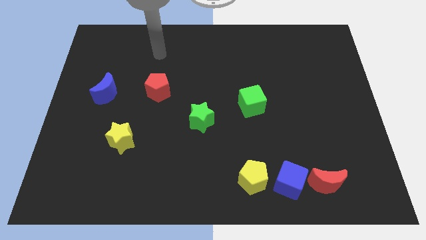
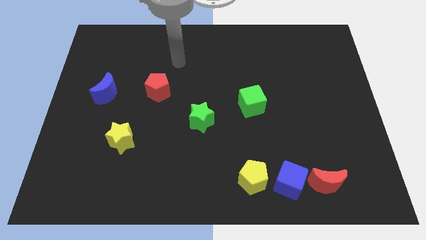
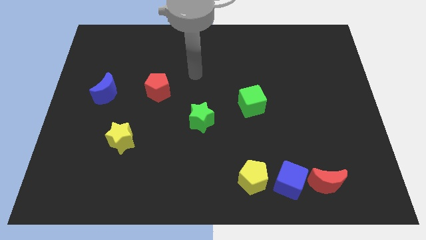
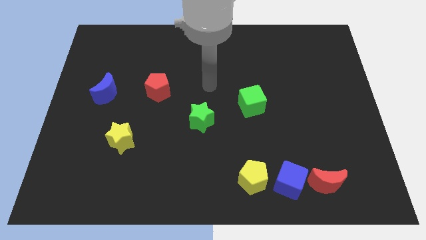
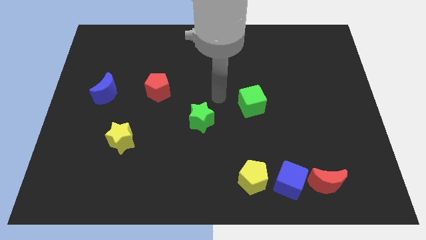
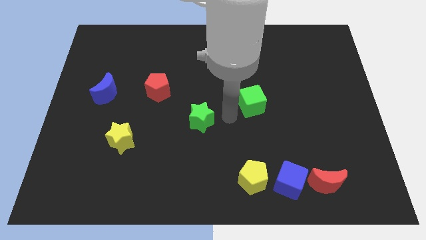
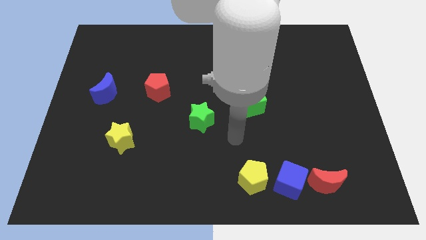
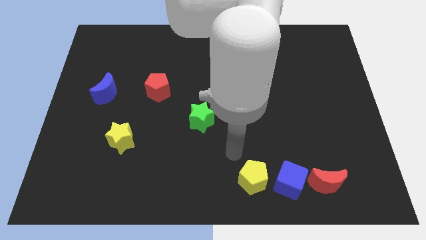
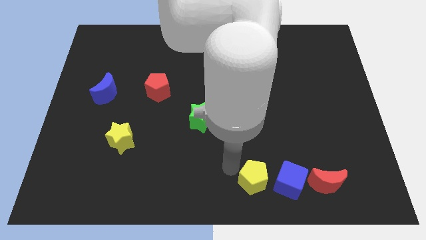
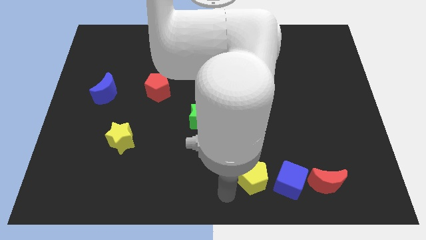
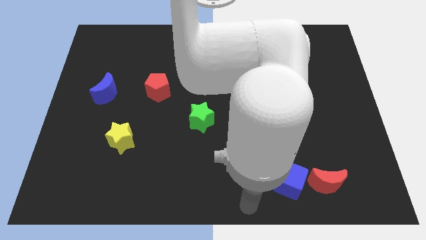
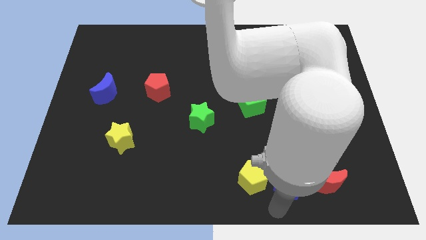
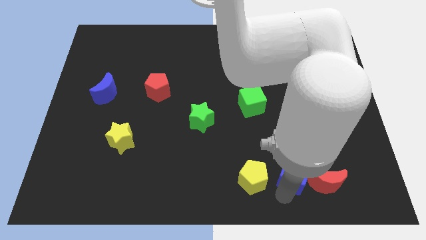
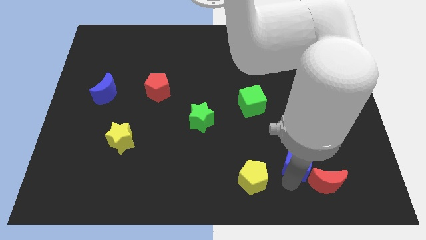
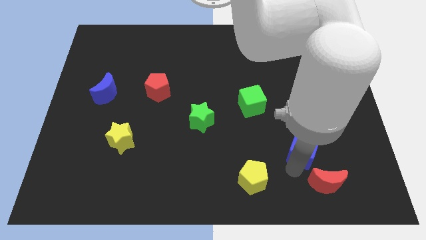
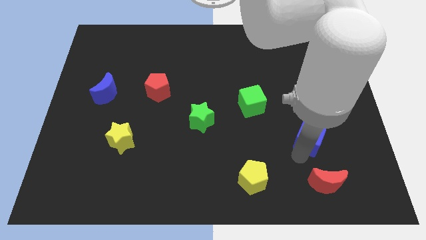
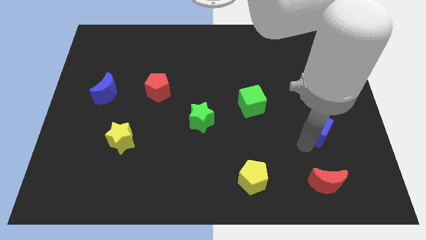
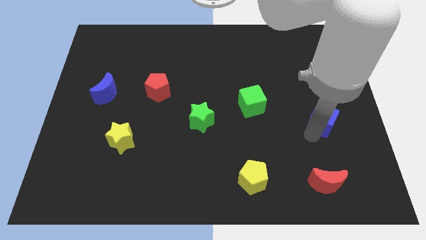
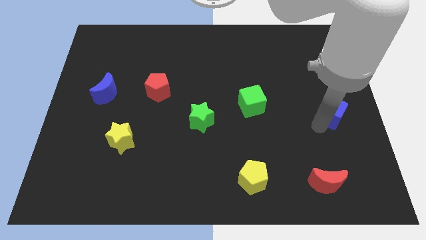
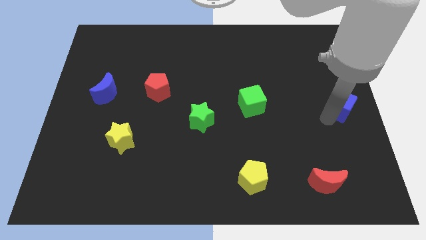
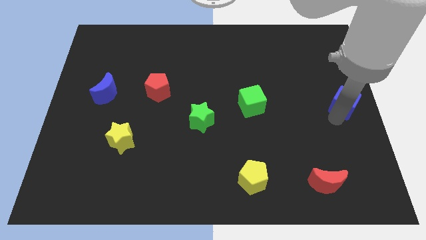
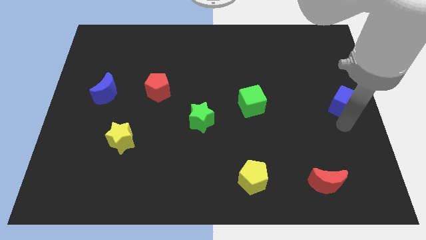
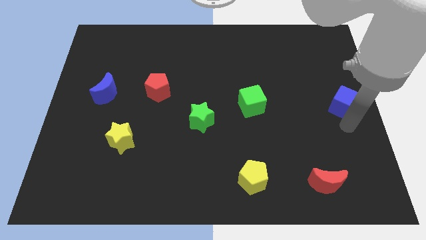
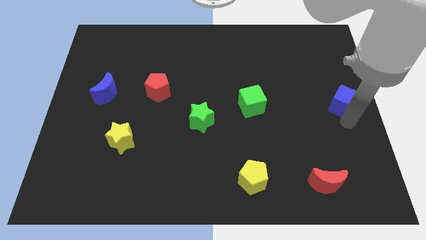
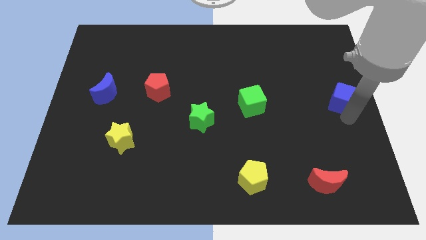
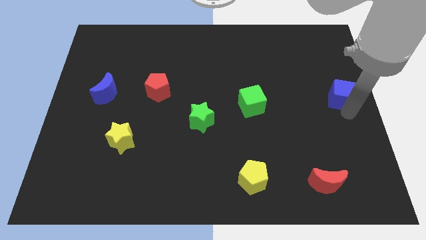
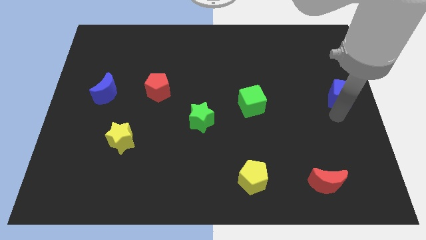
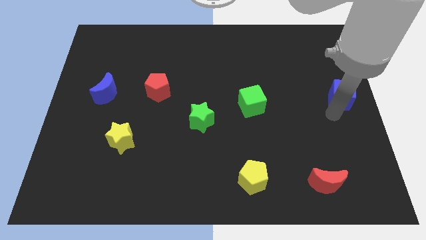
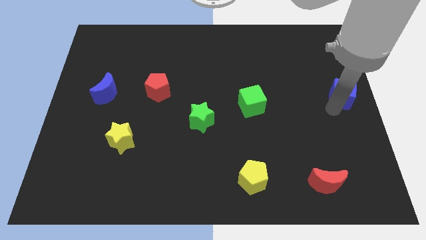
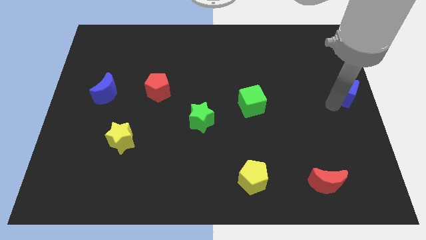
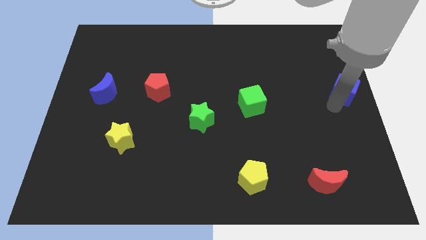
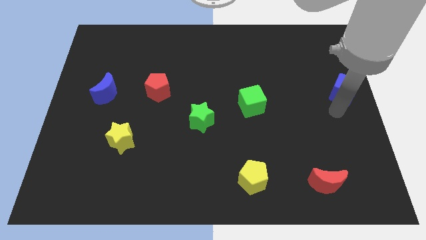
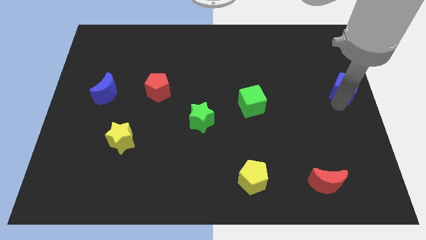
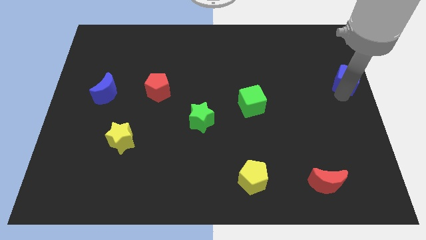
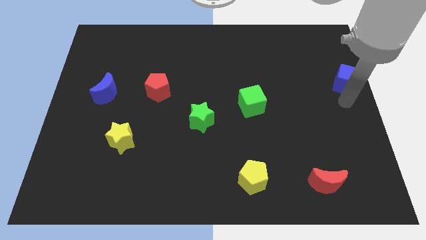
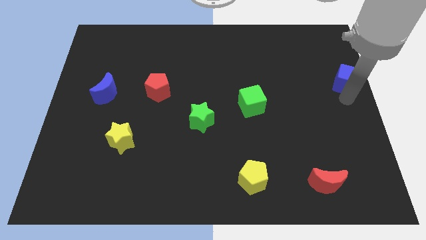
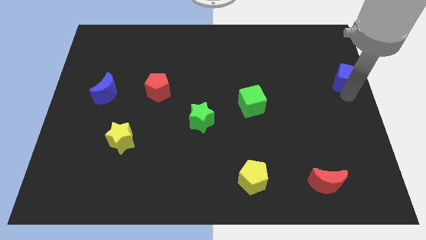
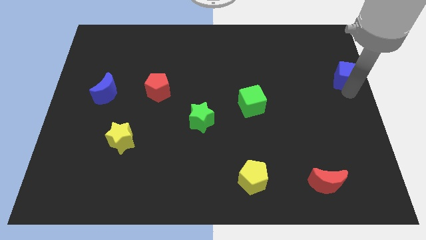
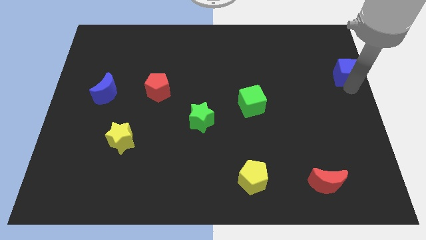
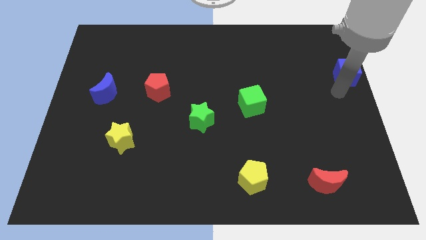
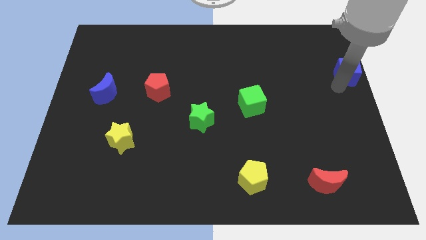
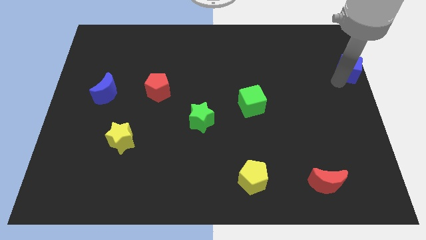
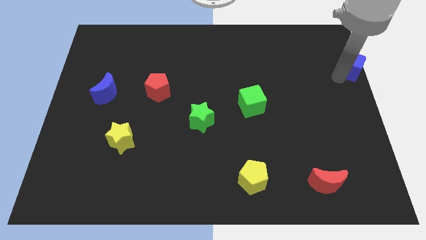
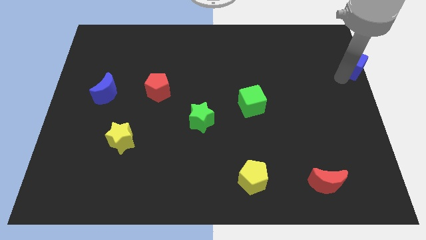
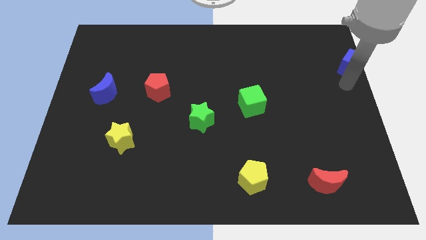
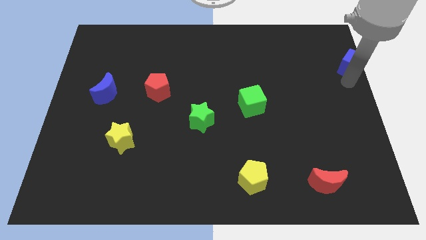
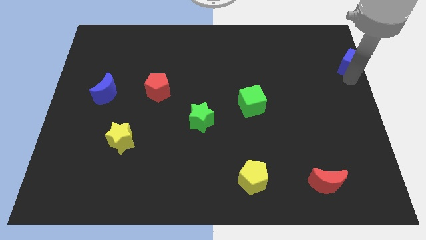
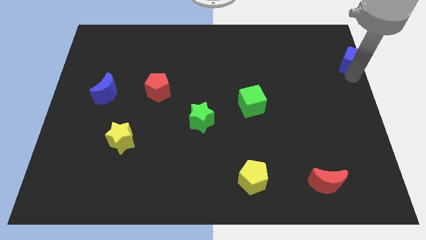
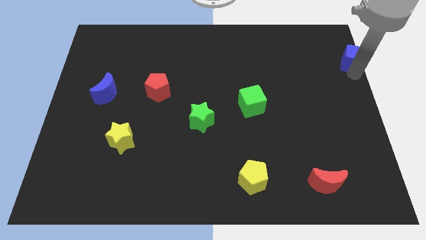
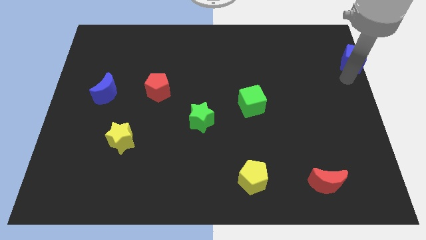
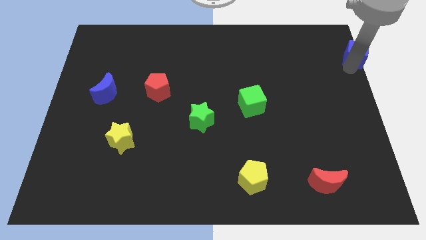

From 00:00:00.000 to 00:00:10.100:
slide the blue cube to the top right

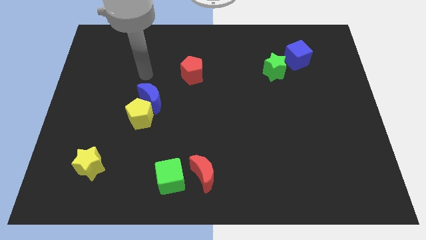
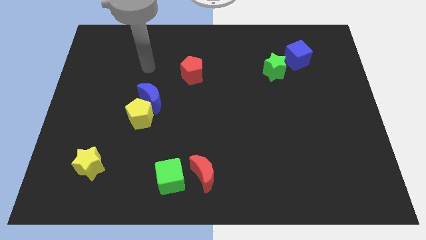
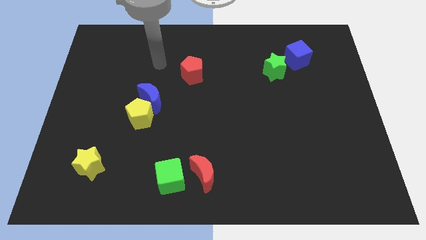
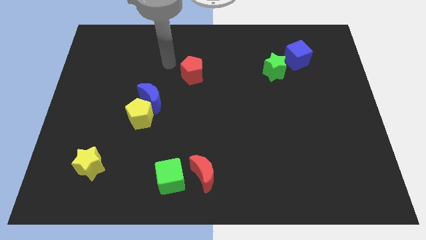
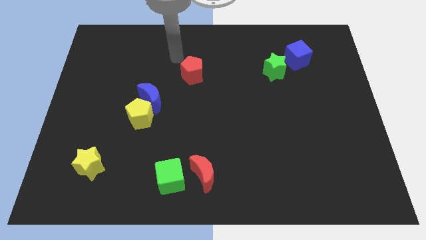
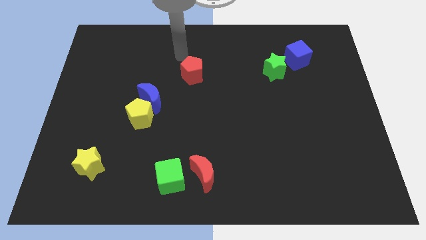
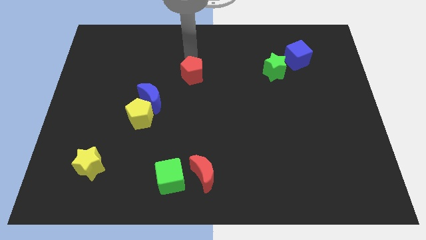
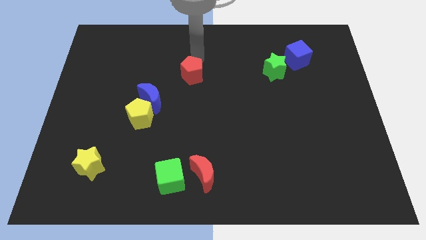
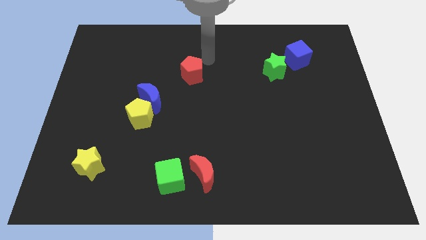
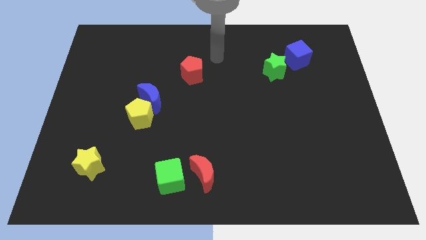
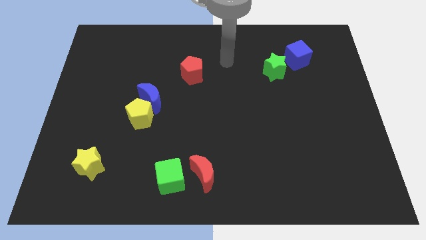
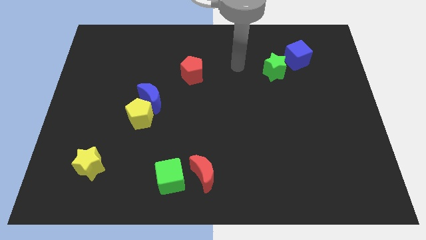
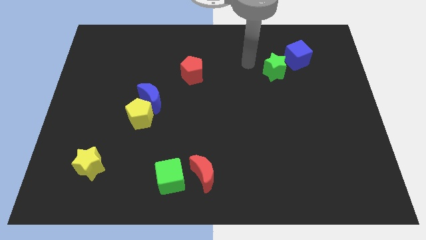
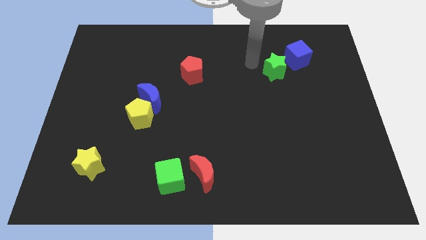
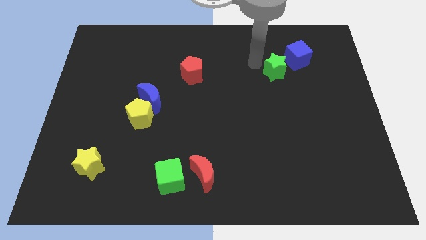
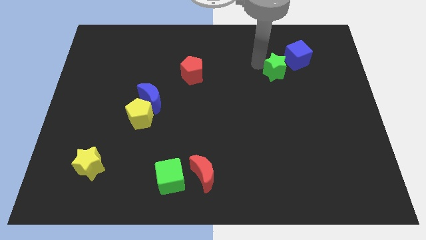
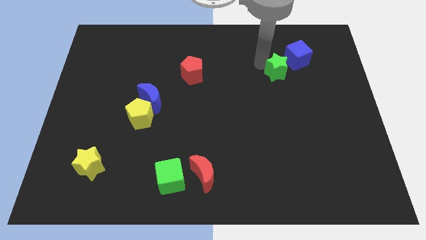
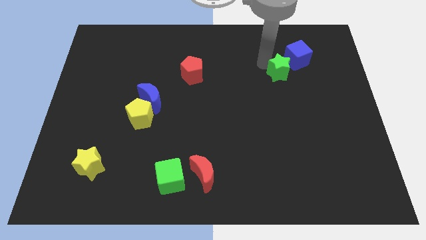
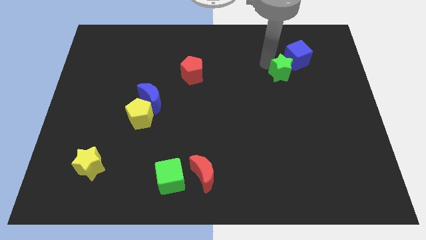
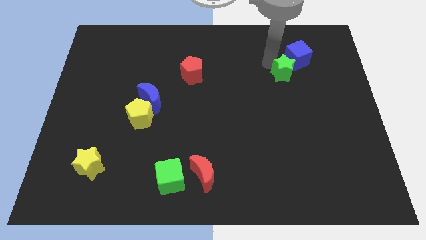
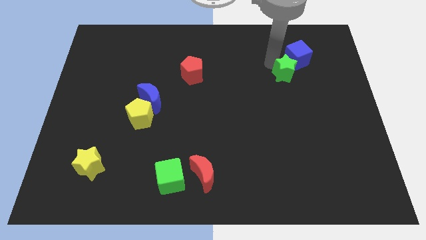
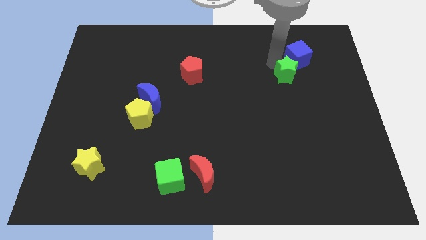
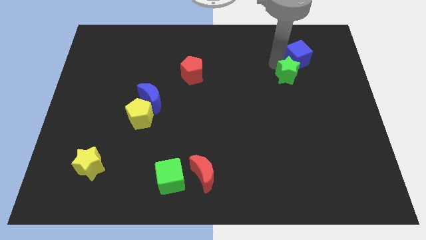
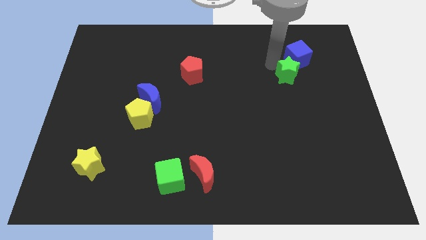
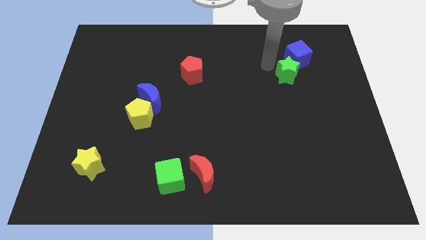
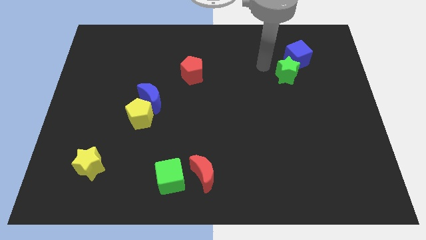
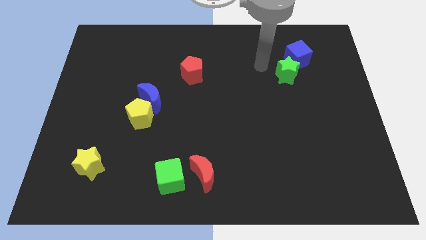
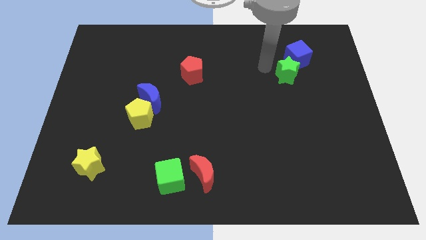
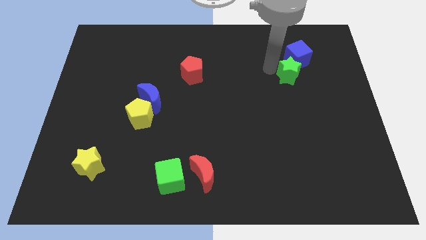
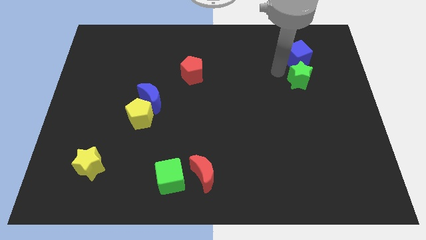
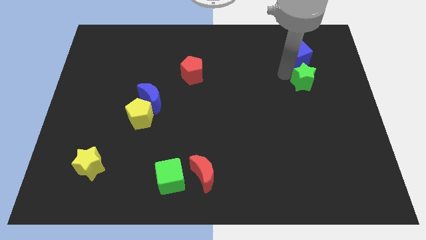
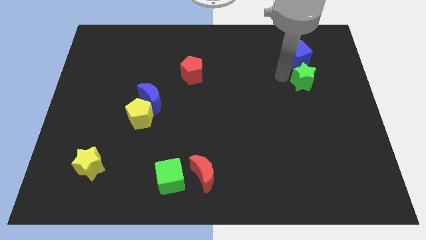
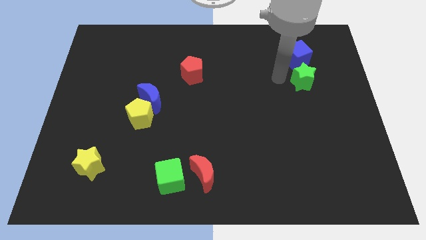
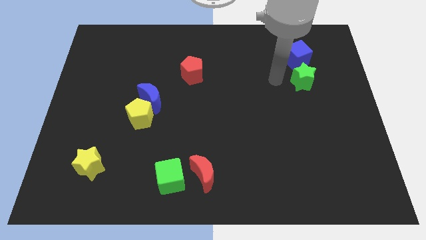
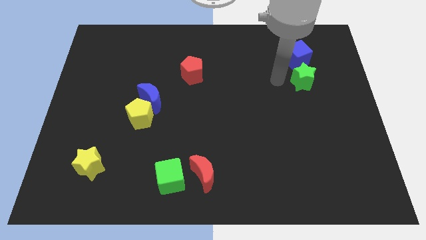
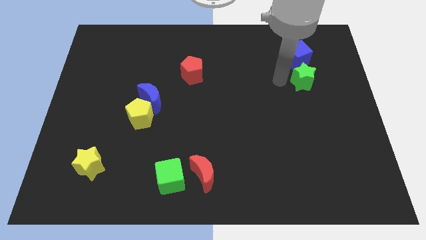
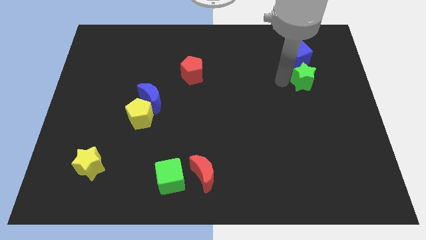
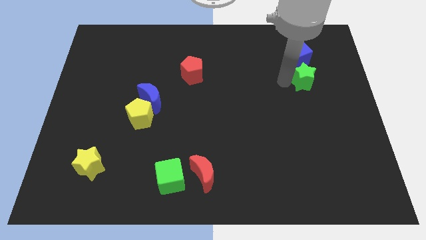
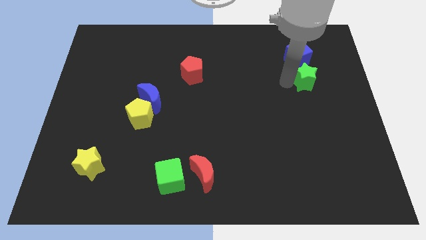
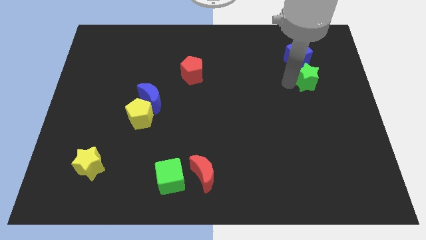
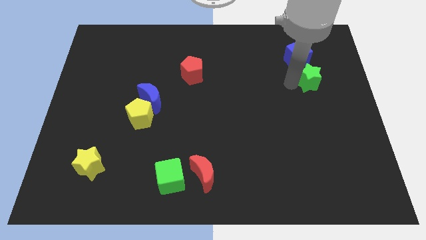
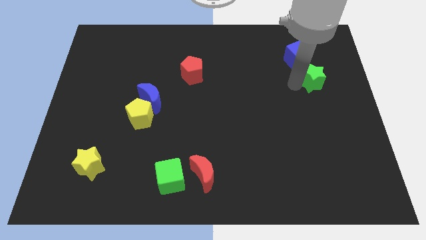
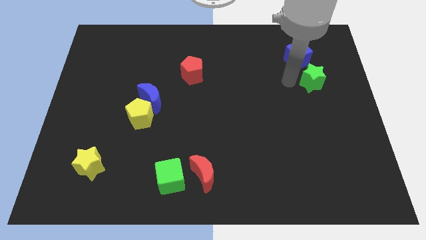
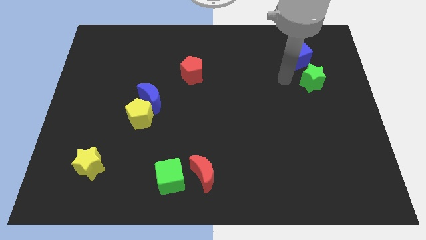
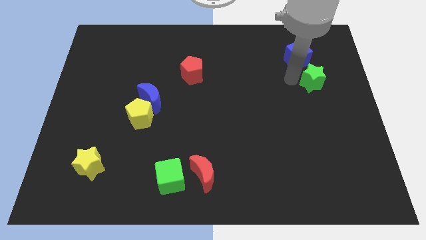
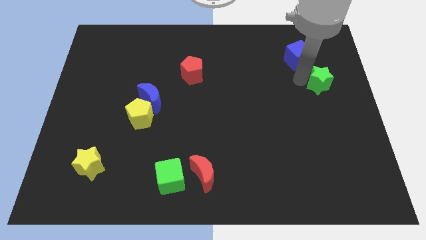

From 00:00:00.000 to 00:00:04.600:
push the green star to the right side of the board
